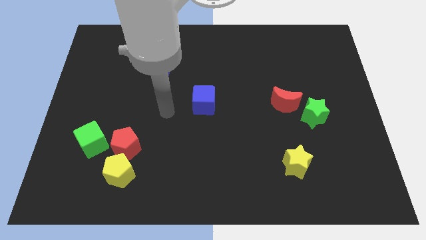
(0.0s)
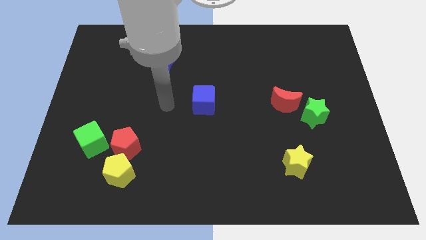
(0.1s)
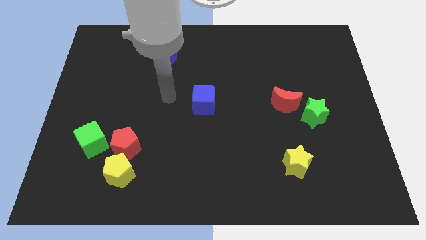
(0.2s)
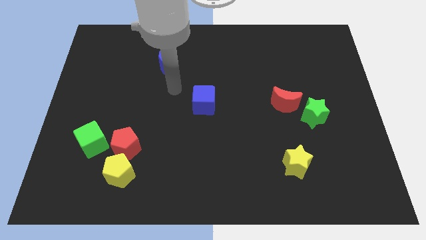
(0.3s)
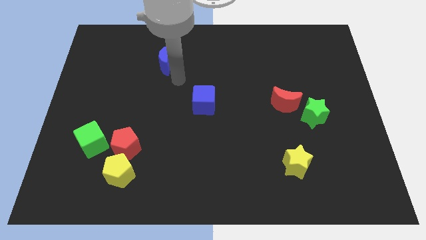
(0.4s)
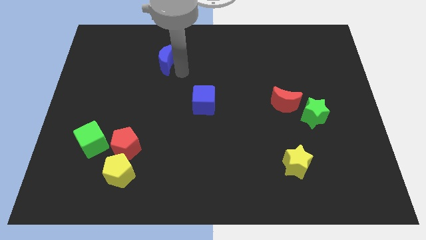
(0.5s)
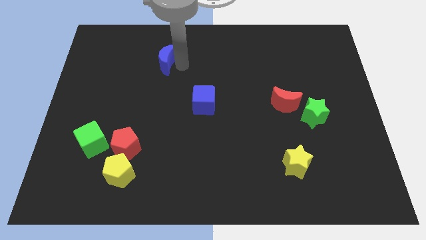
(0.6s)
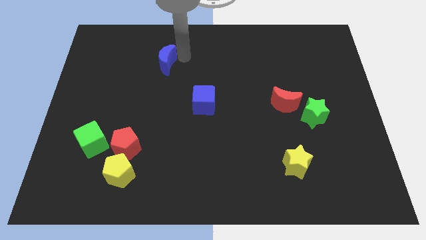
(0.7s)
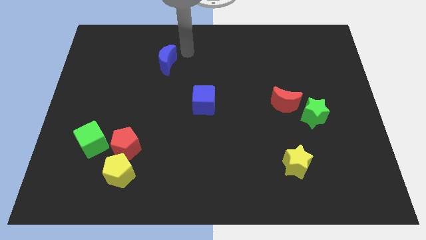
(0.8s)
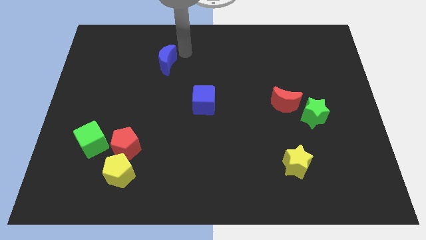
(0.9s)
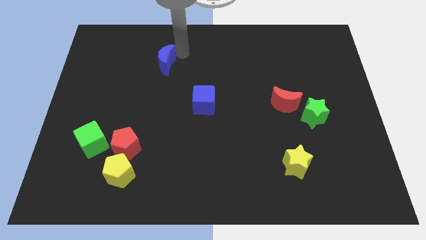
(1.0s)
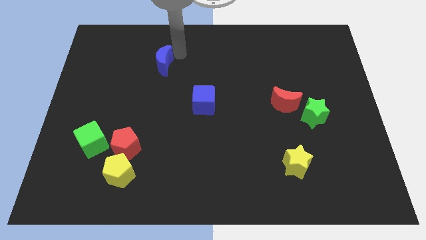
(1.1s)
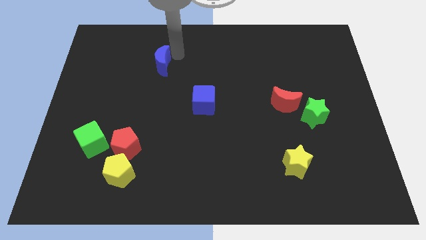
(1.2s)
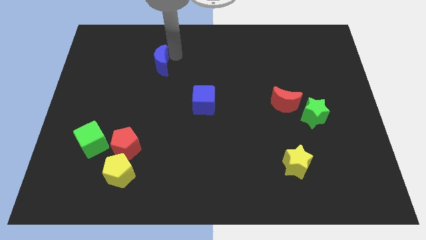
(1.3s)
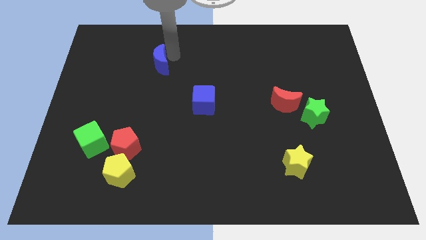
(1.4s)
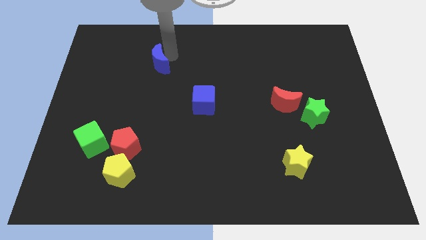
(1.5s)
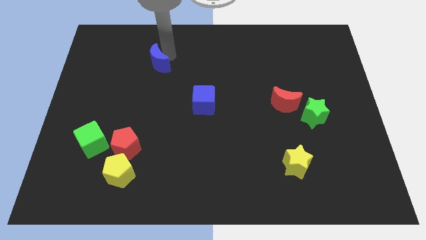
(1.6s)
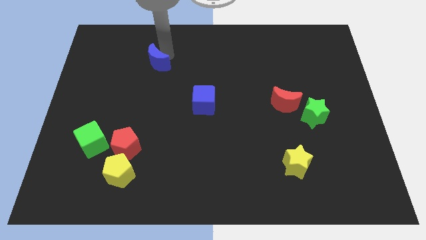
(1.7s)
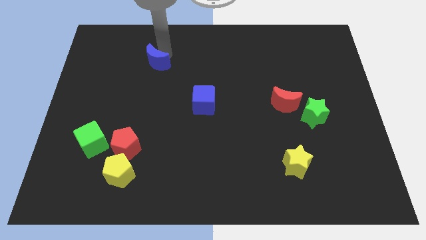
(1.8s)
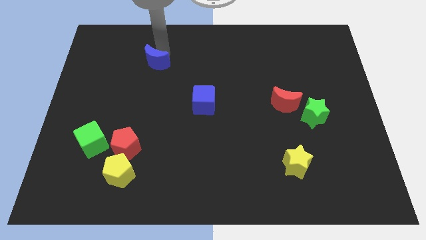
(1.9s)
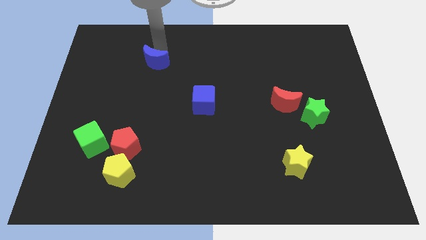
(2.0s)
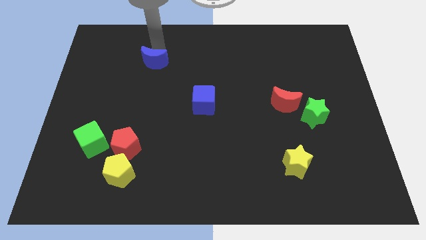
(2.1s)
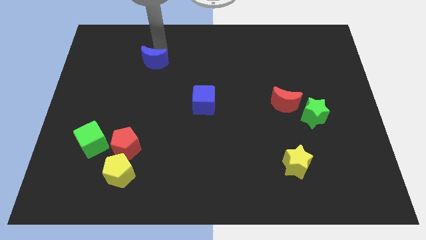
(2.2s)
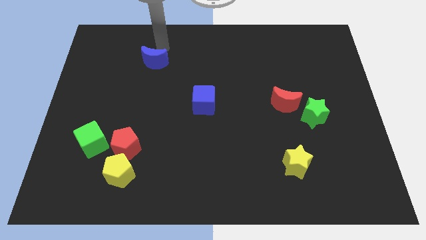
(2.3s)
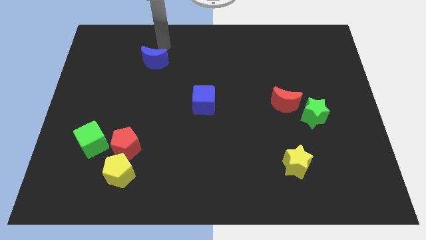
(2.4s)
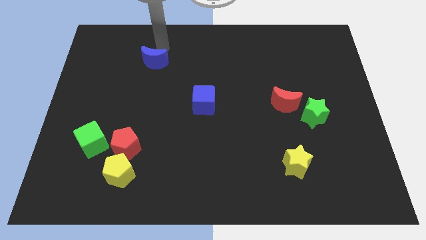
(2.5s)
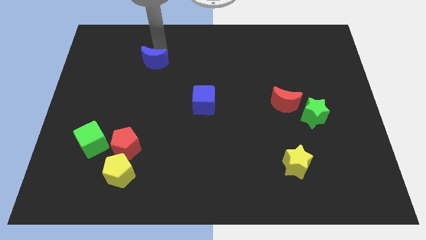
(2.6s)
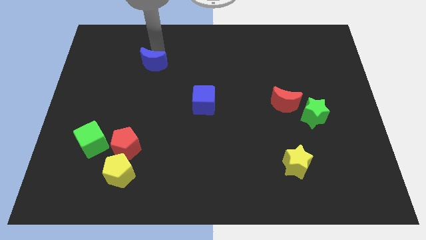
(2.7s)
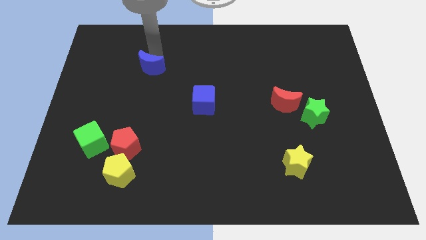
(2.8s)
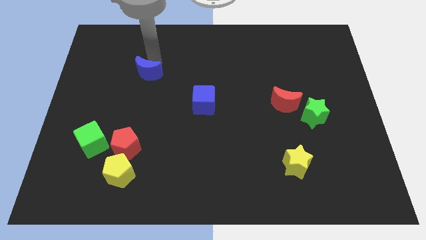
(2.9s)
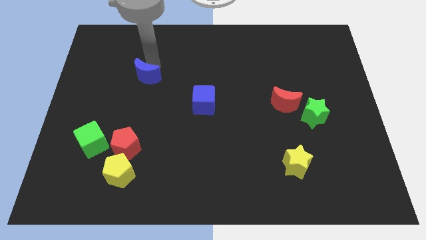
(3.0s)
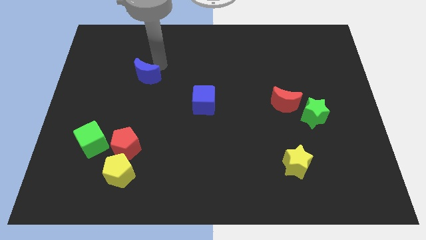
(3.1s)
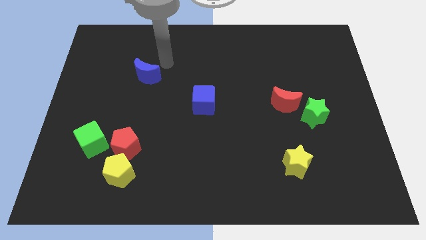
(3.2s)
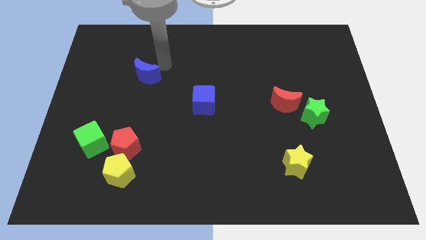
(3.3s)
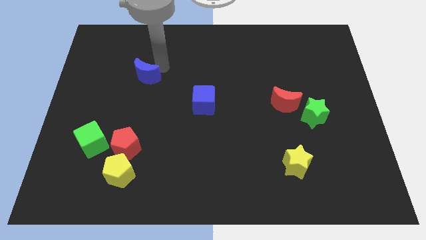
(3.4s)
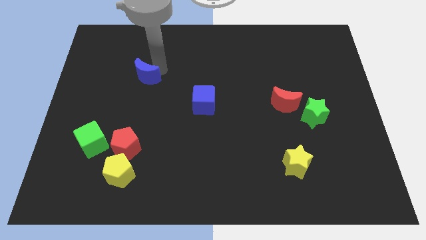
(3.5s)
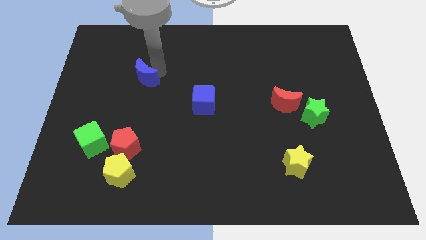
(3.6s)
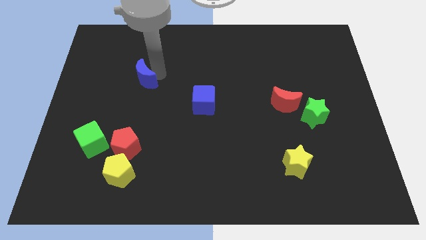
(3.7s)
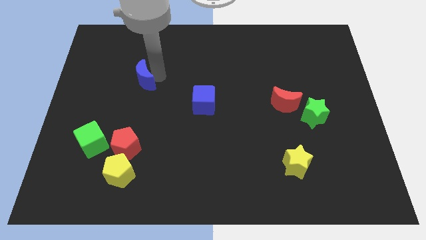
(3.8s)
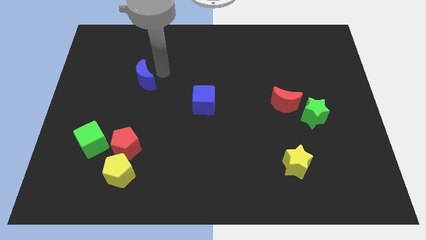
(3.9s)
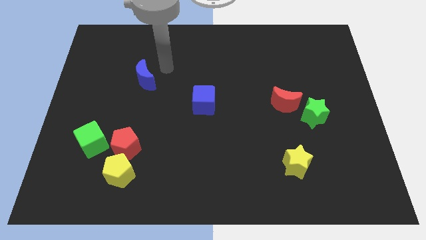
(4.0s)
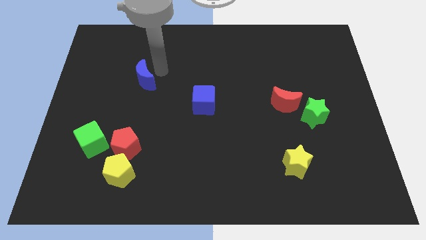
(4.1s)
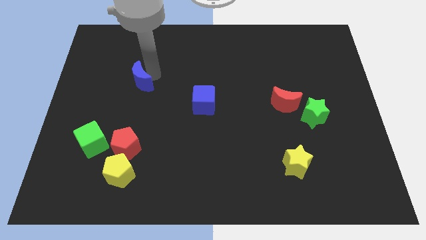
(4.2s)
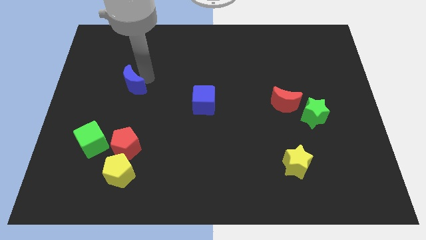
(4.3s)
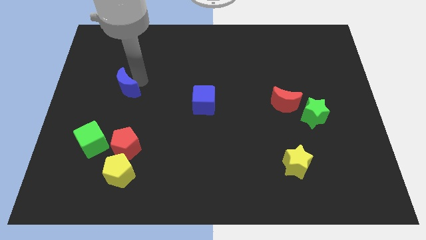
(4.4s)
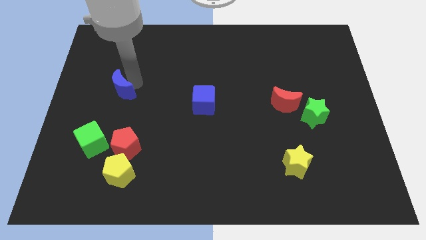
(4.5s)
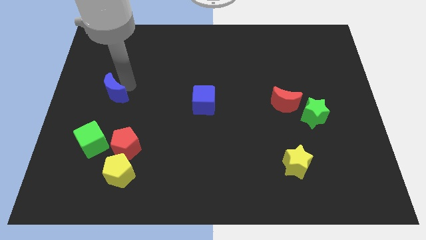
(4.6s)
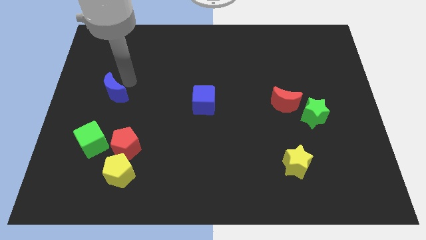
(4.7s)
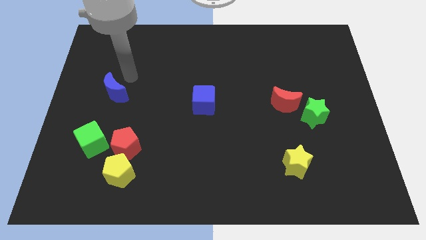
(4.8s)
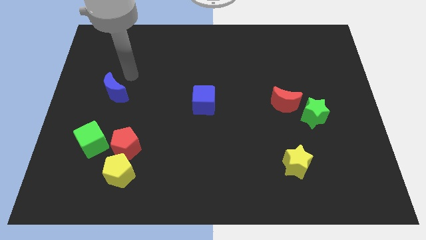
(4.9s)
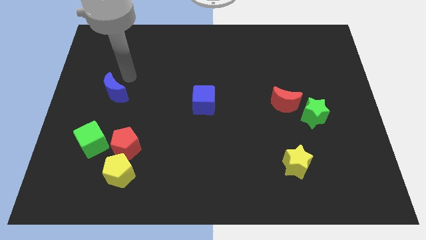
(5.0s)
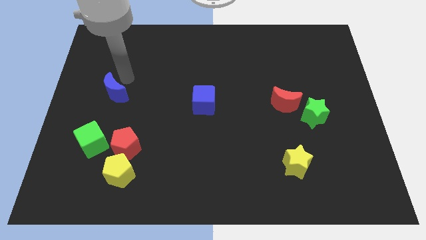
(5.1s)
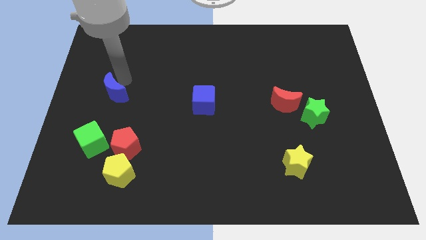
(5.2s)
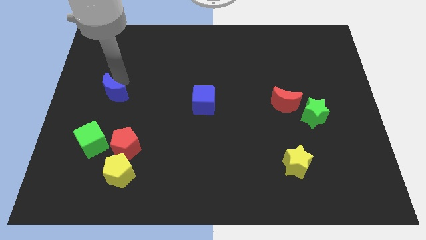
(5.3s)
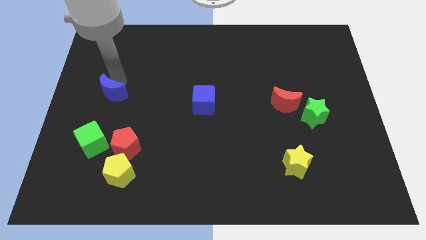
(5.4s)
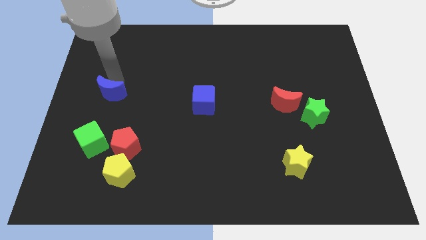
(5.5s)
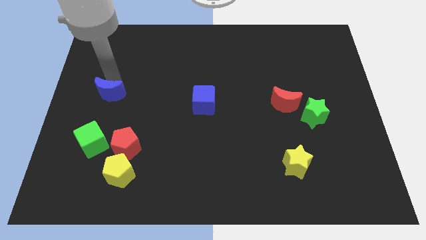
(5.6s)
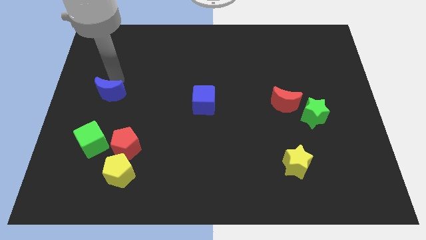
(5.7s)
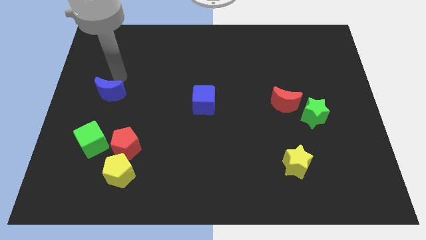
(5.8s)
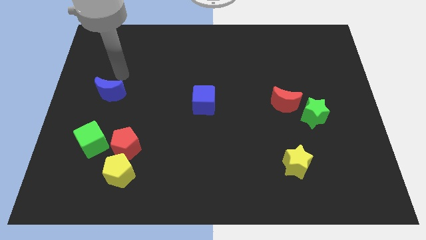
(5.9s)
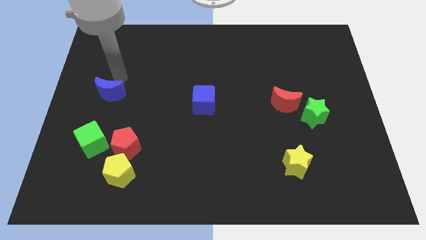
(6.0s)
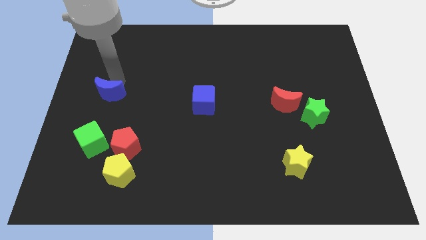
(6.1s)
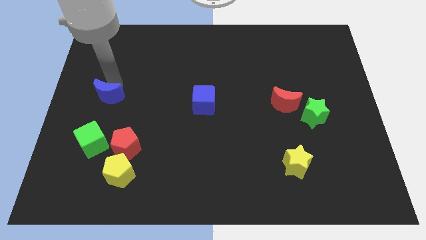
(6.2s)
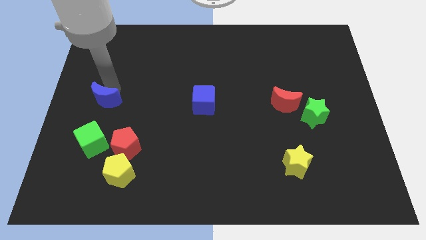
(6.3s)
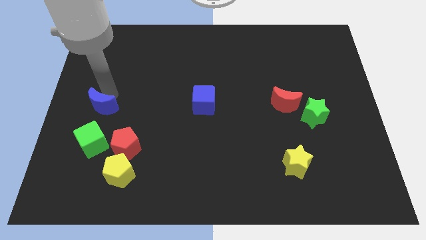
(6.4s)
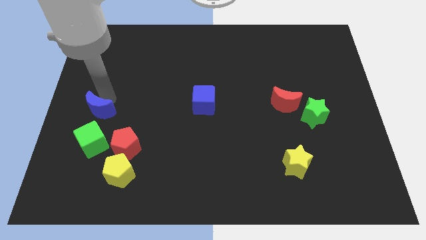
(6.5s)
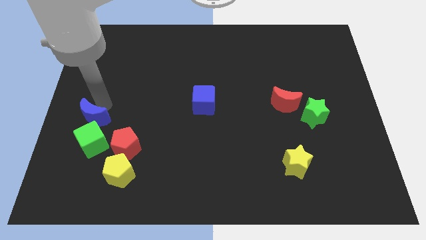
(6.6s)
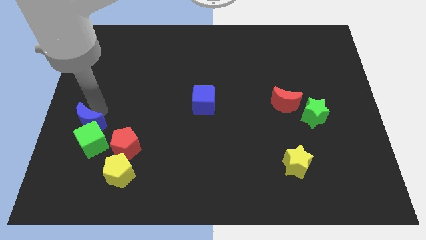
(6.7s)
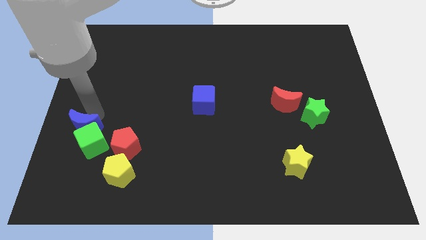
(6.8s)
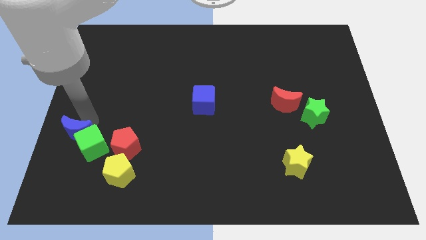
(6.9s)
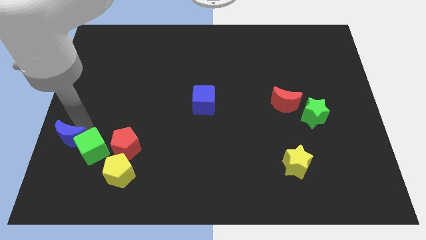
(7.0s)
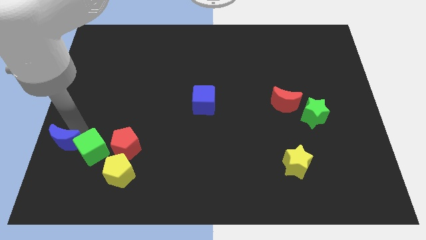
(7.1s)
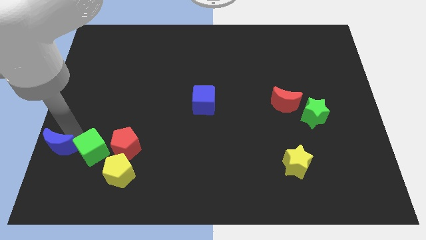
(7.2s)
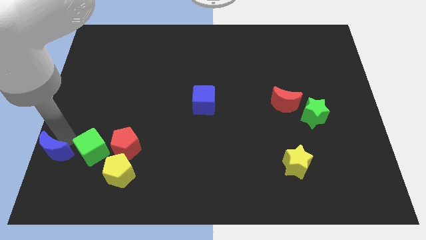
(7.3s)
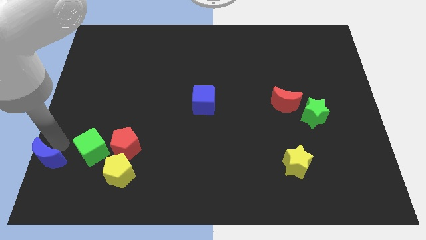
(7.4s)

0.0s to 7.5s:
slide the blue moon to the bottom left corner
